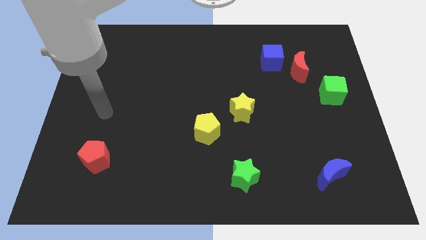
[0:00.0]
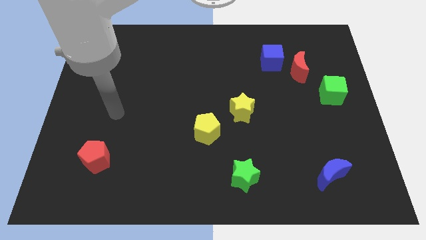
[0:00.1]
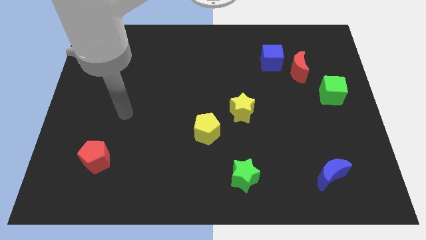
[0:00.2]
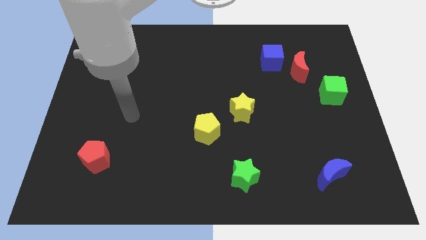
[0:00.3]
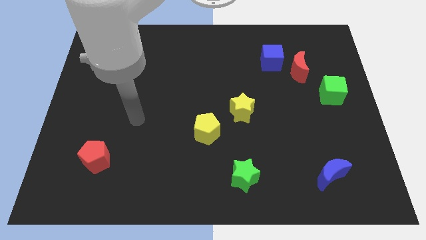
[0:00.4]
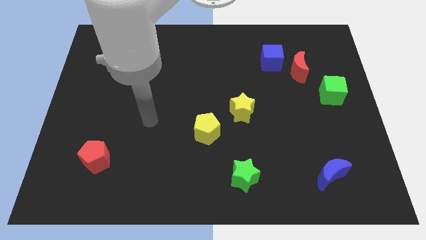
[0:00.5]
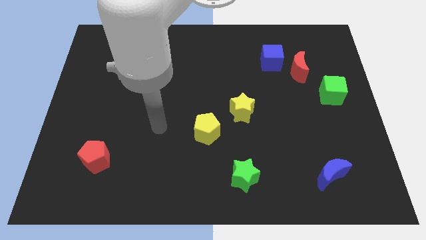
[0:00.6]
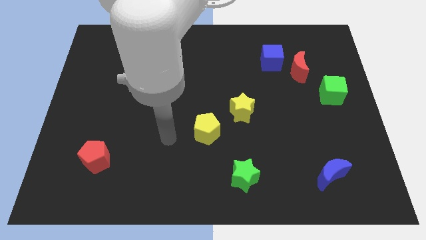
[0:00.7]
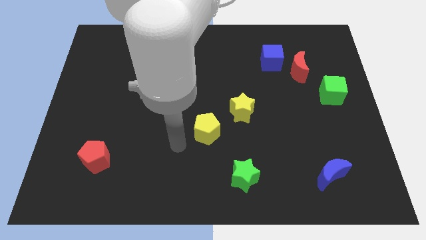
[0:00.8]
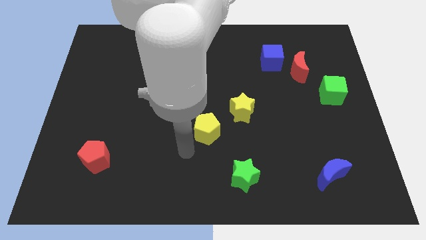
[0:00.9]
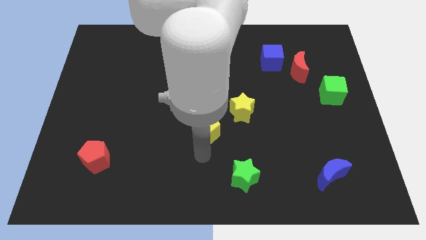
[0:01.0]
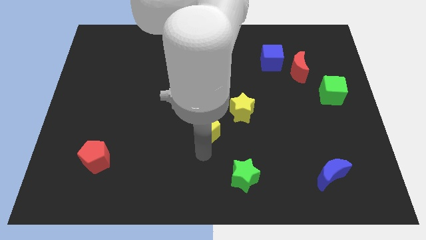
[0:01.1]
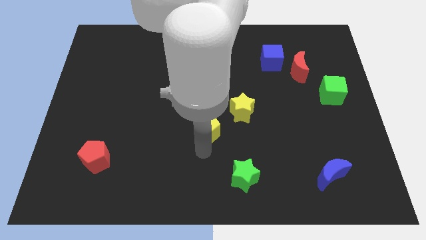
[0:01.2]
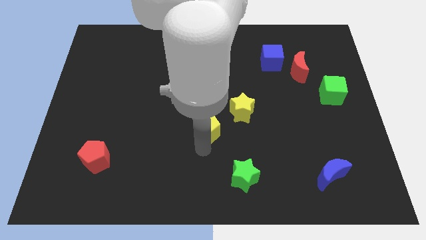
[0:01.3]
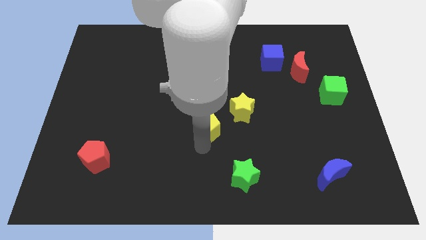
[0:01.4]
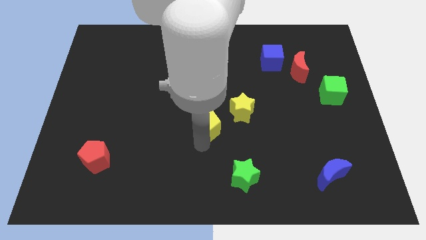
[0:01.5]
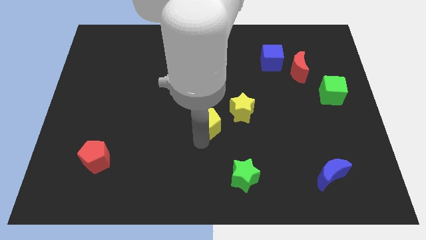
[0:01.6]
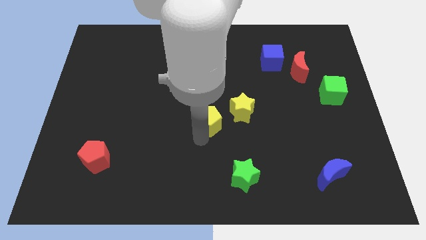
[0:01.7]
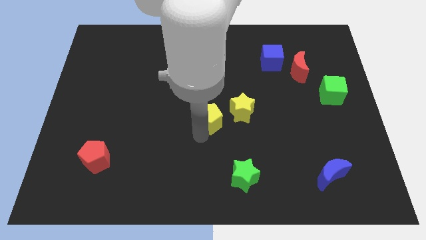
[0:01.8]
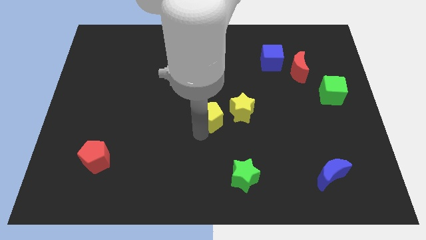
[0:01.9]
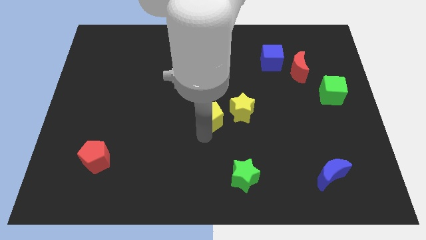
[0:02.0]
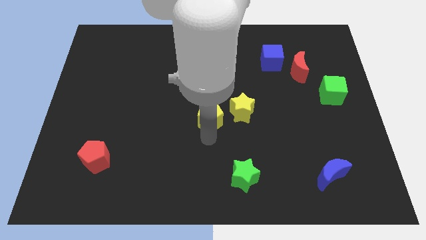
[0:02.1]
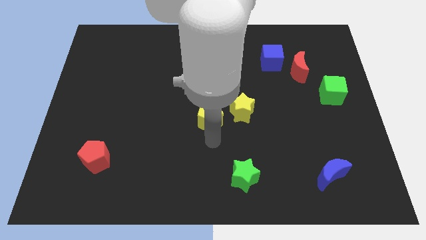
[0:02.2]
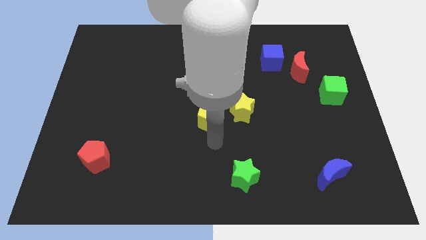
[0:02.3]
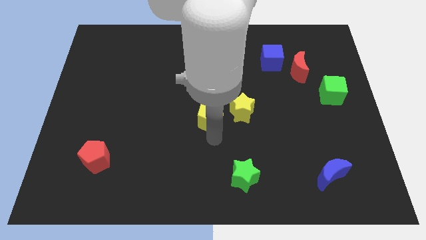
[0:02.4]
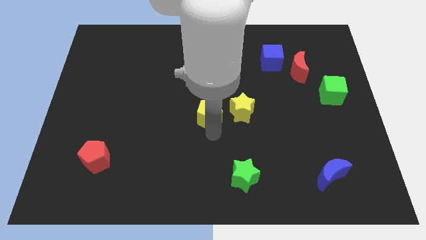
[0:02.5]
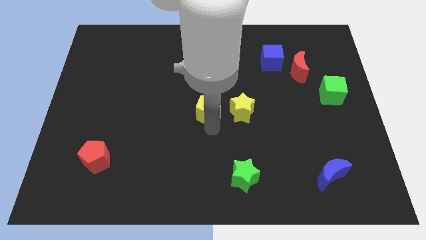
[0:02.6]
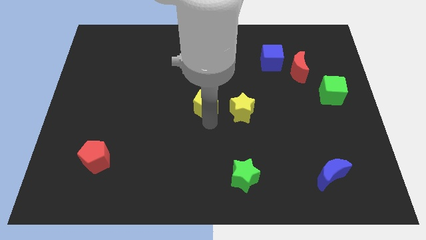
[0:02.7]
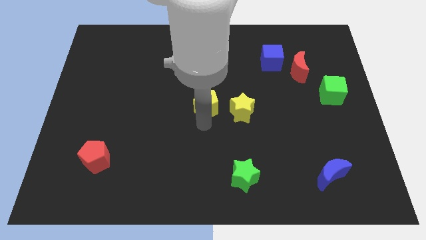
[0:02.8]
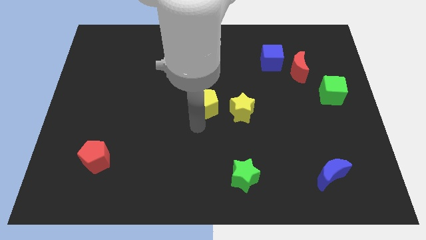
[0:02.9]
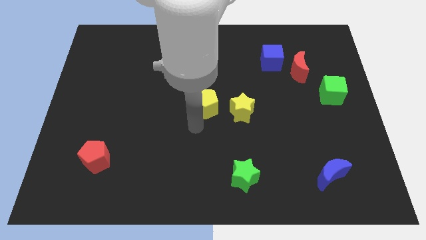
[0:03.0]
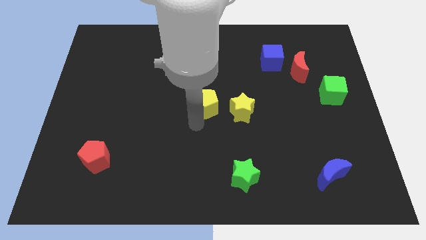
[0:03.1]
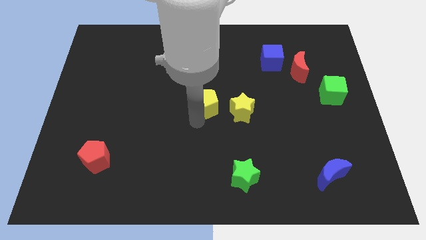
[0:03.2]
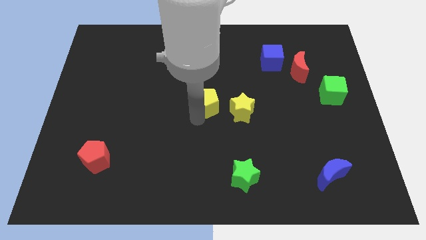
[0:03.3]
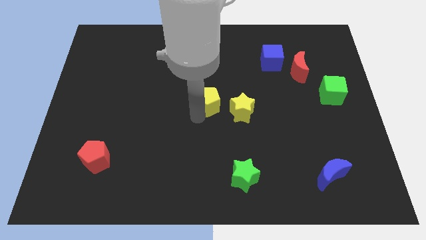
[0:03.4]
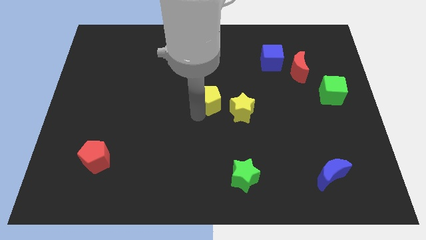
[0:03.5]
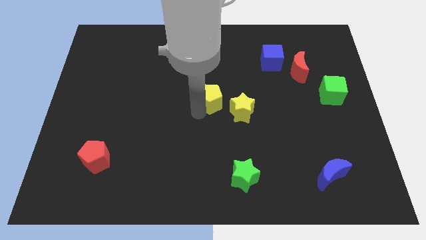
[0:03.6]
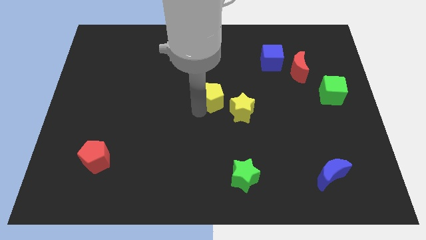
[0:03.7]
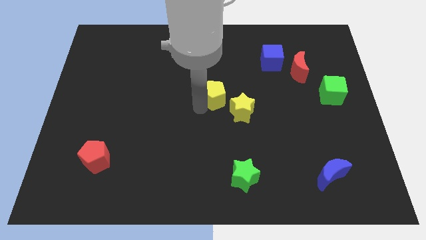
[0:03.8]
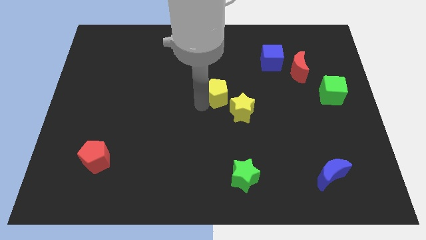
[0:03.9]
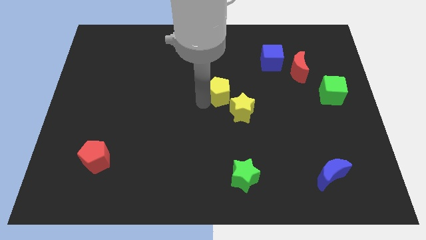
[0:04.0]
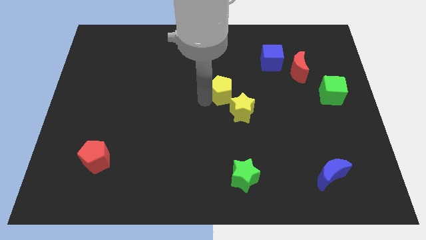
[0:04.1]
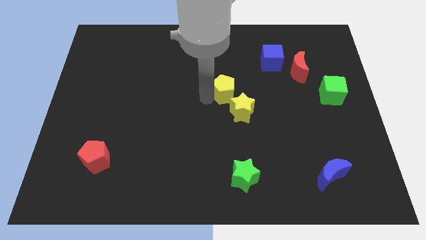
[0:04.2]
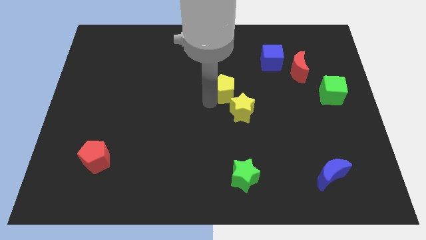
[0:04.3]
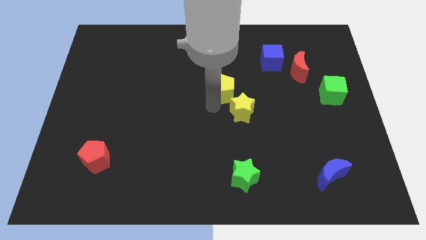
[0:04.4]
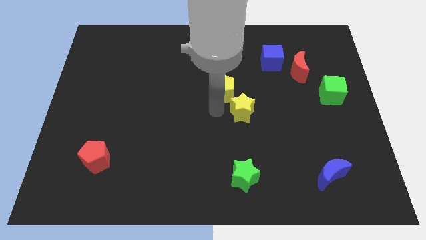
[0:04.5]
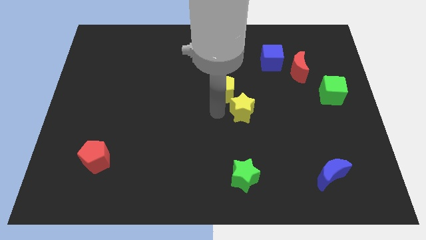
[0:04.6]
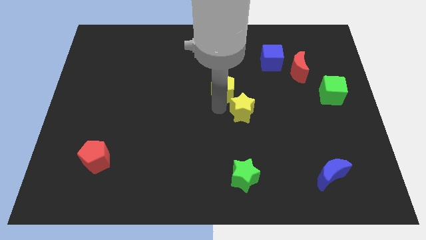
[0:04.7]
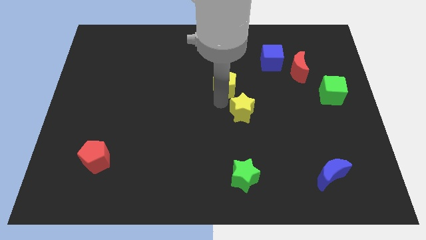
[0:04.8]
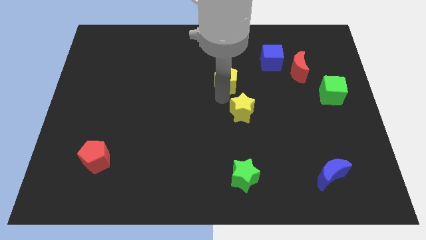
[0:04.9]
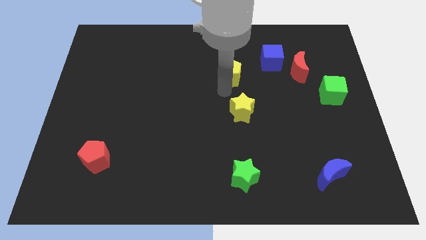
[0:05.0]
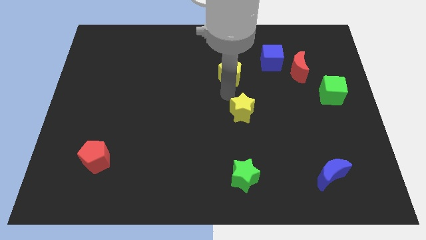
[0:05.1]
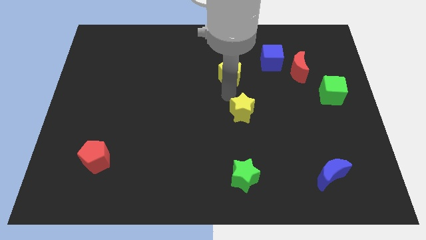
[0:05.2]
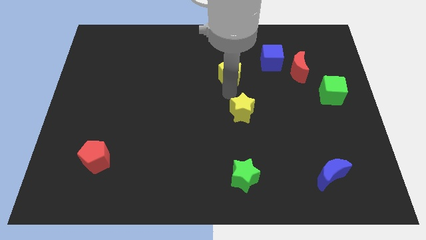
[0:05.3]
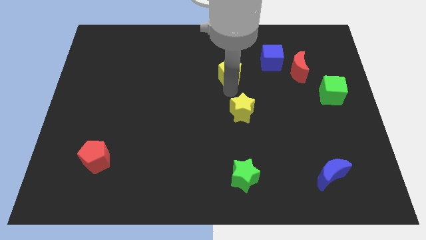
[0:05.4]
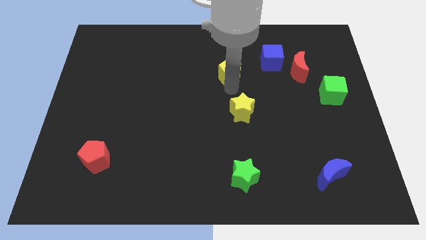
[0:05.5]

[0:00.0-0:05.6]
push the yellow pentagon to the left side of the blue cube

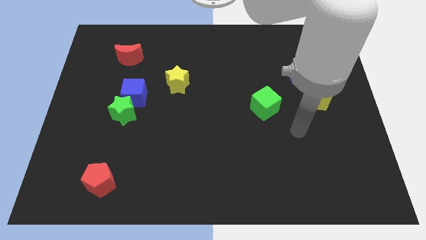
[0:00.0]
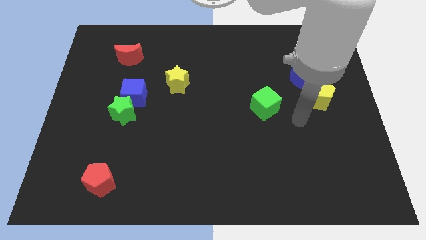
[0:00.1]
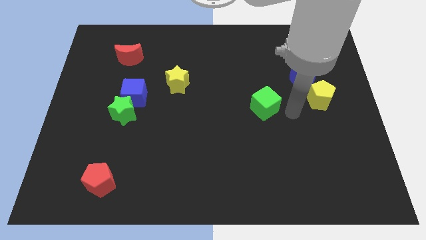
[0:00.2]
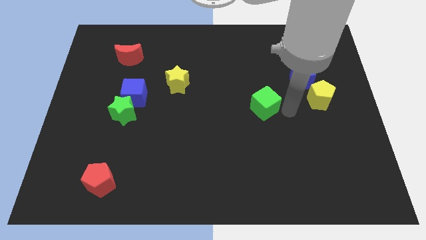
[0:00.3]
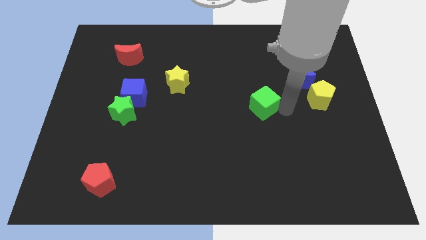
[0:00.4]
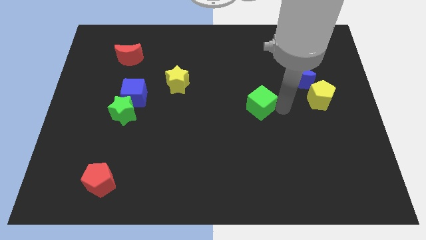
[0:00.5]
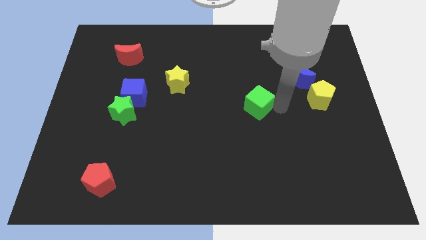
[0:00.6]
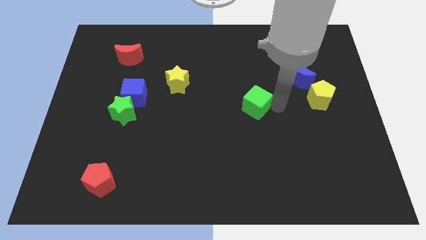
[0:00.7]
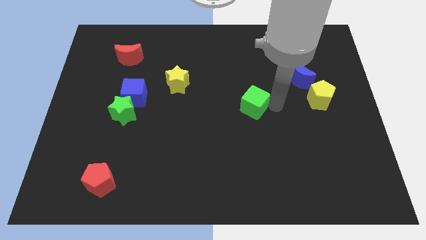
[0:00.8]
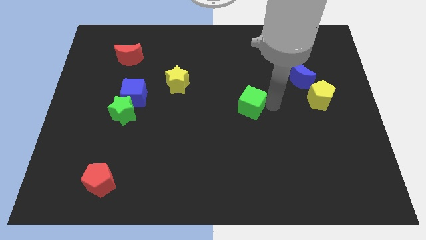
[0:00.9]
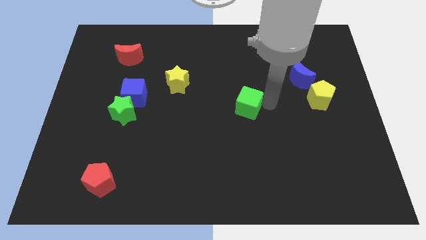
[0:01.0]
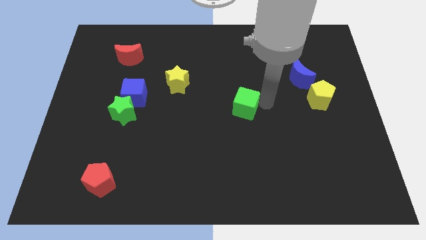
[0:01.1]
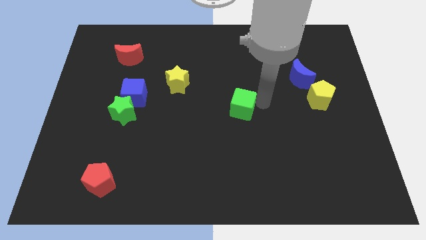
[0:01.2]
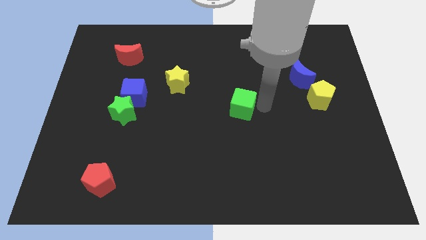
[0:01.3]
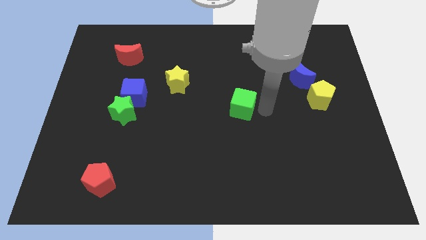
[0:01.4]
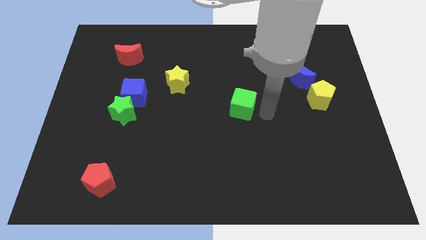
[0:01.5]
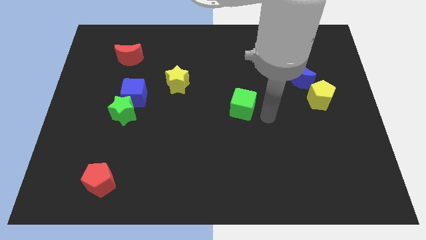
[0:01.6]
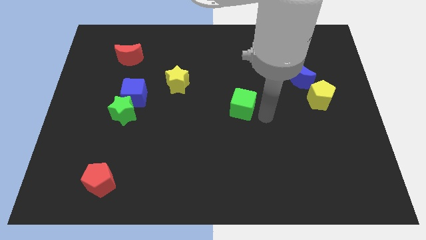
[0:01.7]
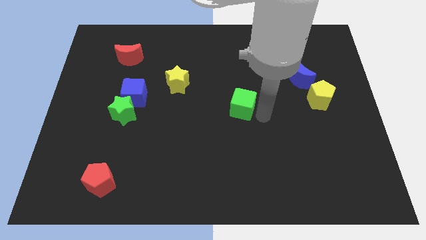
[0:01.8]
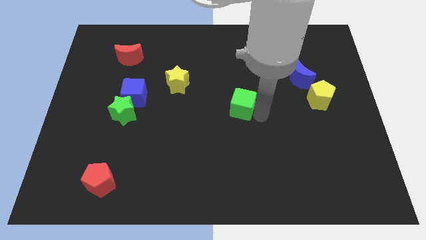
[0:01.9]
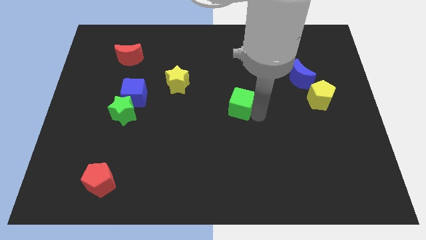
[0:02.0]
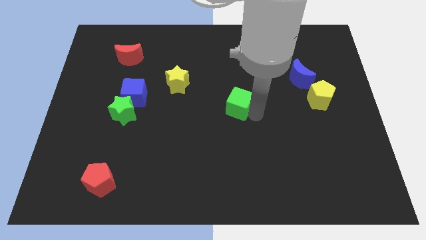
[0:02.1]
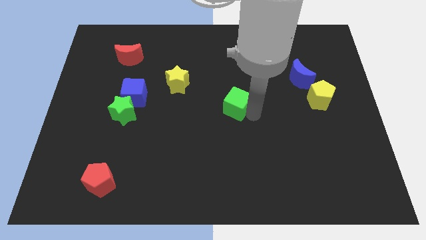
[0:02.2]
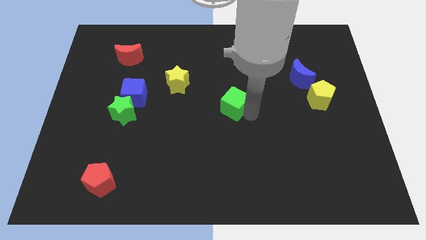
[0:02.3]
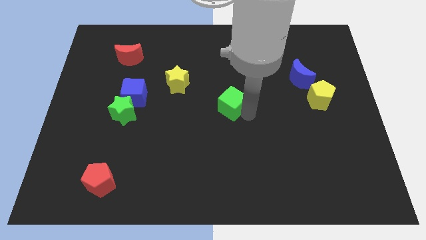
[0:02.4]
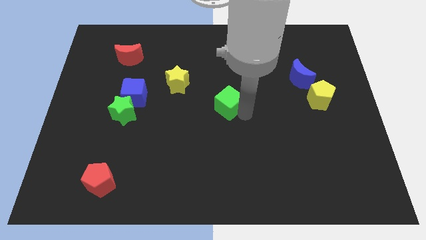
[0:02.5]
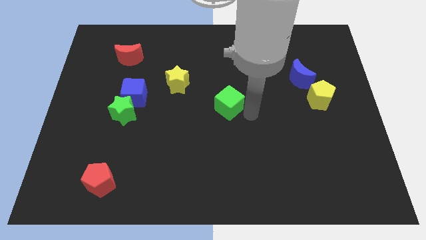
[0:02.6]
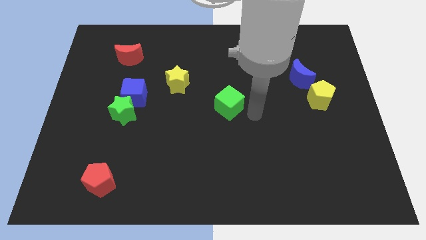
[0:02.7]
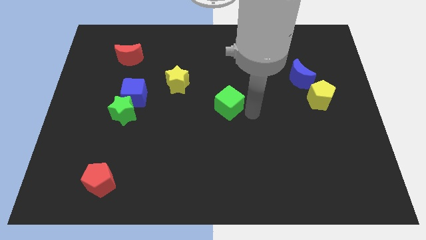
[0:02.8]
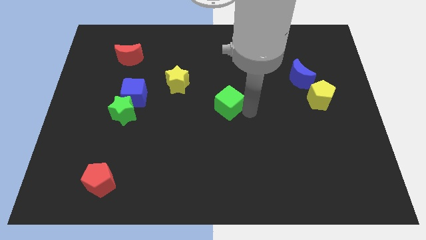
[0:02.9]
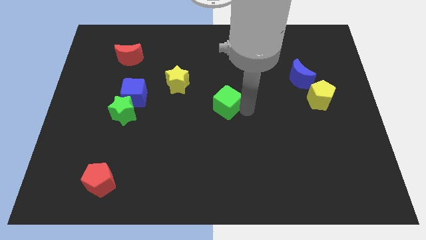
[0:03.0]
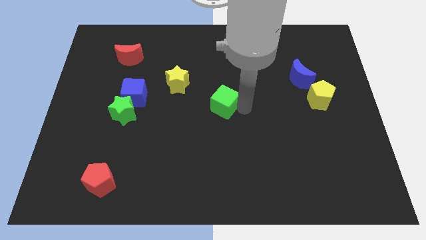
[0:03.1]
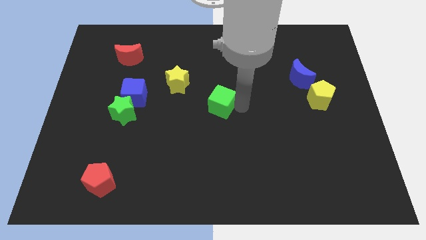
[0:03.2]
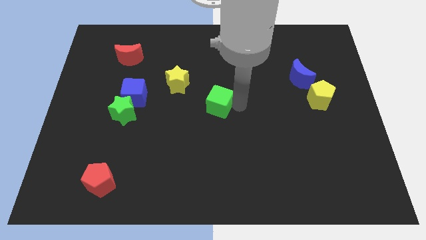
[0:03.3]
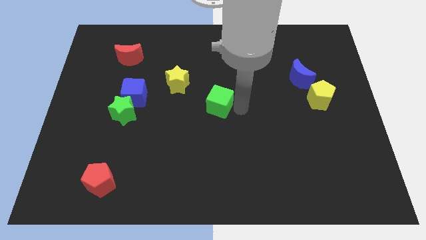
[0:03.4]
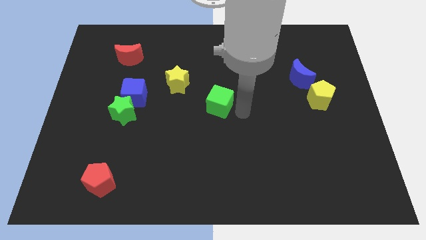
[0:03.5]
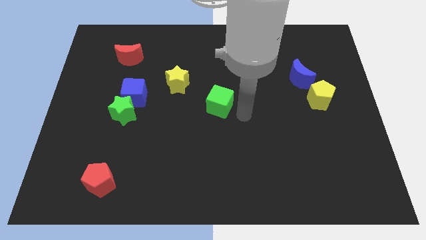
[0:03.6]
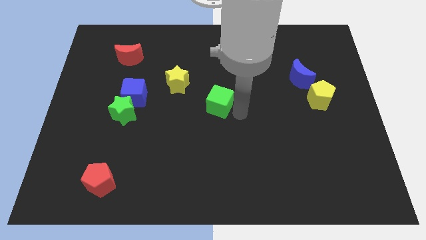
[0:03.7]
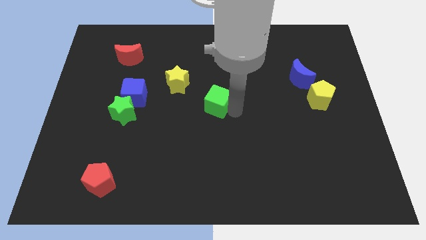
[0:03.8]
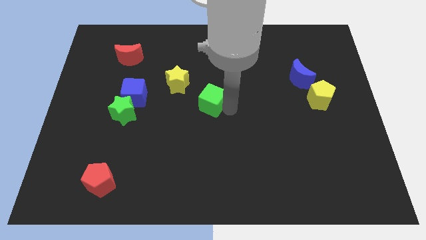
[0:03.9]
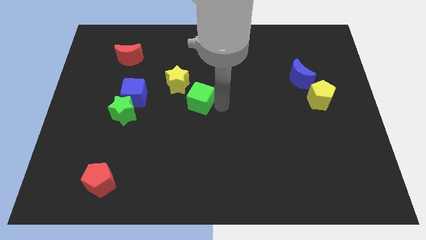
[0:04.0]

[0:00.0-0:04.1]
move the green cube to the right of the blue cube
